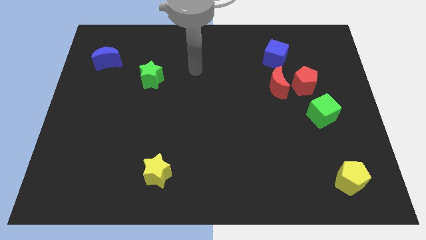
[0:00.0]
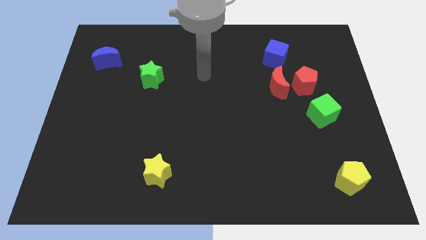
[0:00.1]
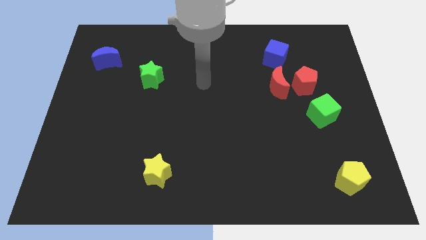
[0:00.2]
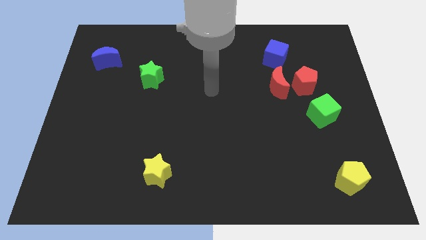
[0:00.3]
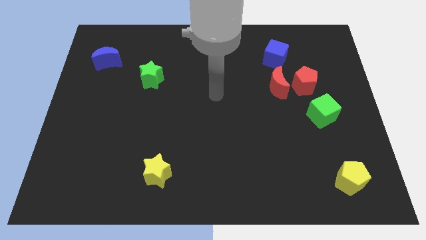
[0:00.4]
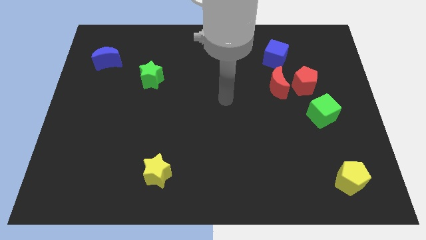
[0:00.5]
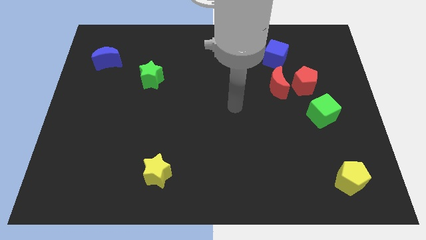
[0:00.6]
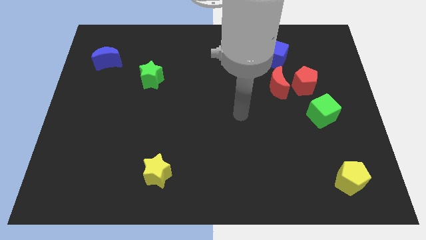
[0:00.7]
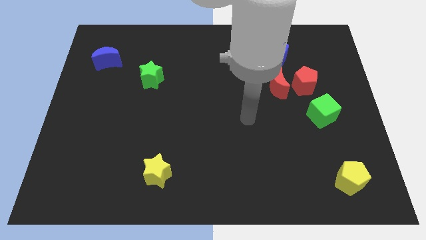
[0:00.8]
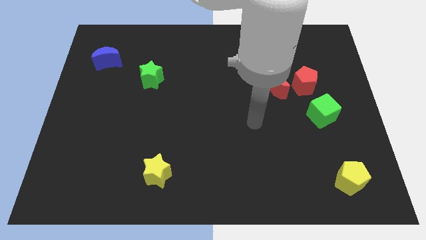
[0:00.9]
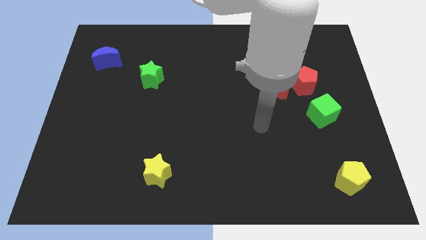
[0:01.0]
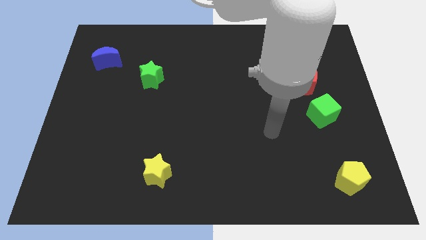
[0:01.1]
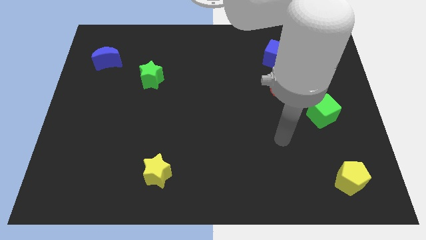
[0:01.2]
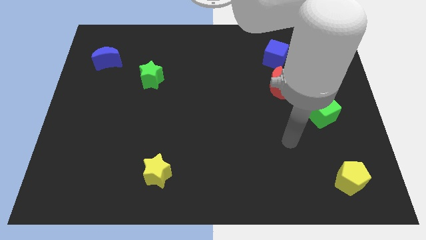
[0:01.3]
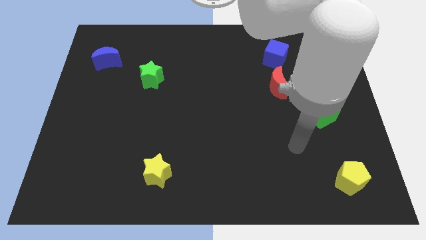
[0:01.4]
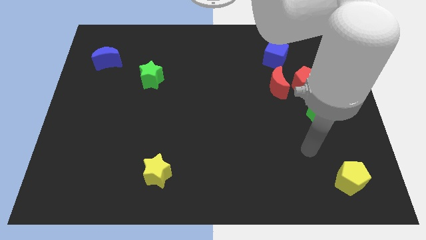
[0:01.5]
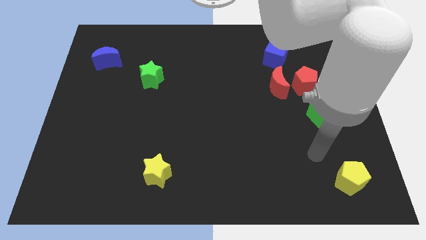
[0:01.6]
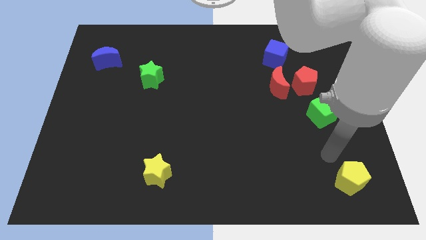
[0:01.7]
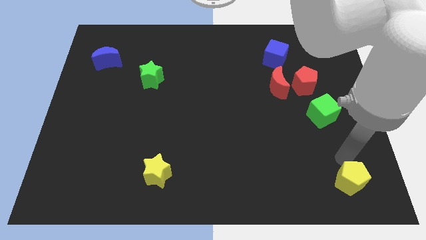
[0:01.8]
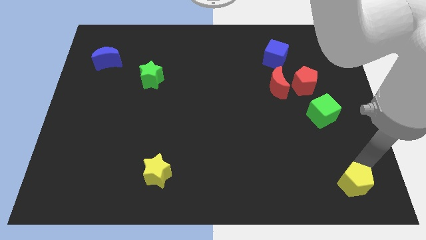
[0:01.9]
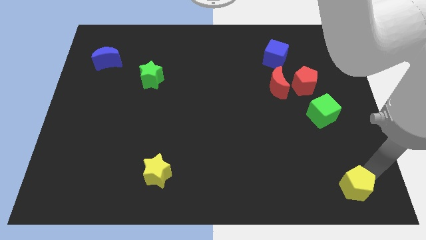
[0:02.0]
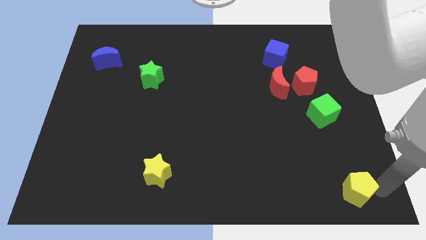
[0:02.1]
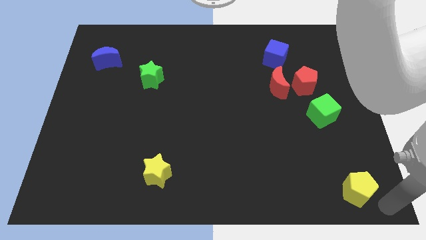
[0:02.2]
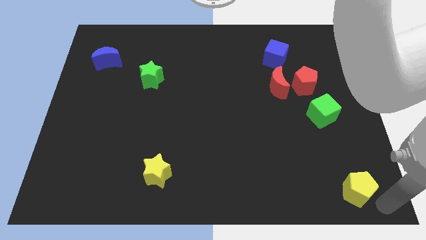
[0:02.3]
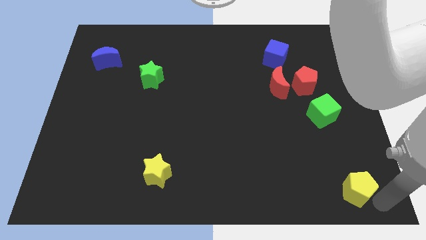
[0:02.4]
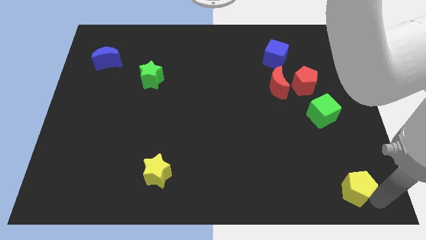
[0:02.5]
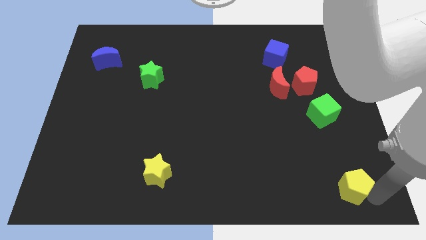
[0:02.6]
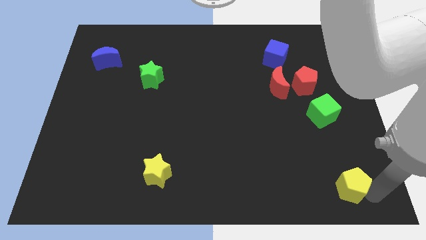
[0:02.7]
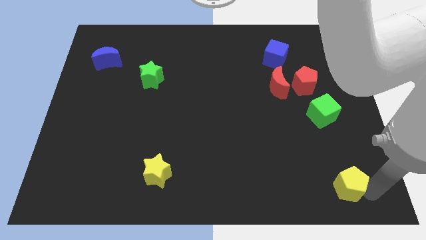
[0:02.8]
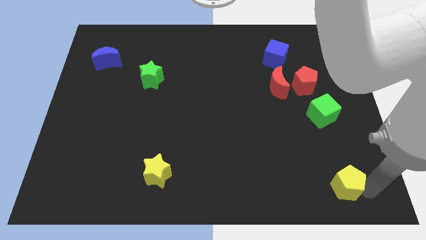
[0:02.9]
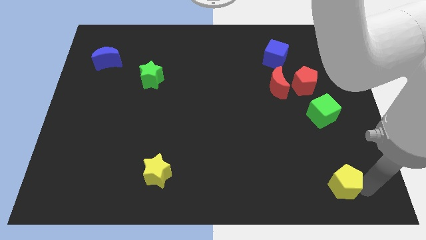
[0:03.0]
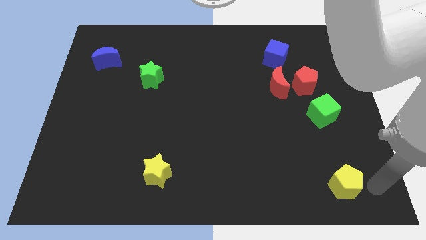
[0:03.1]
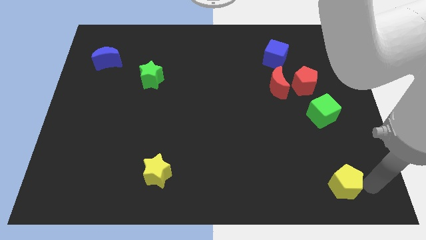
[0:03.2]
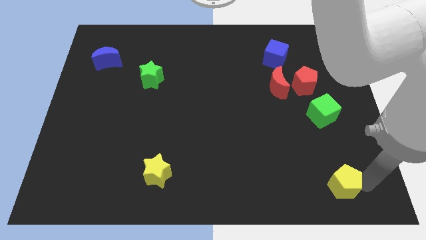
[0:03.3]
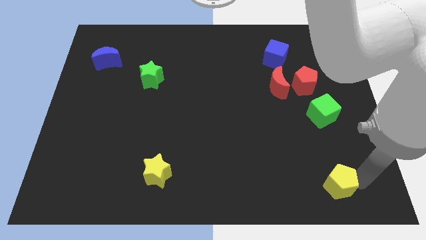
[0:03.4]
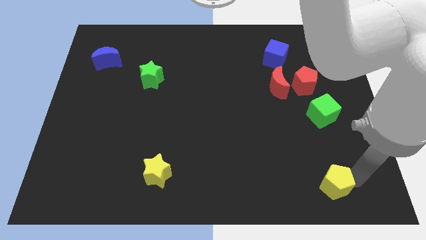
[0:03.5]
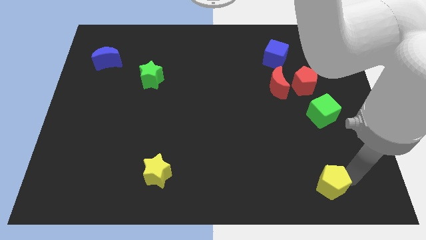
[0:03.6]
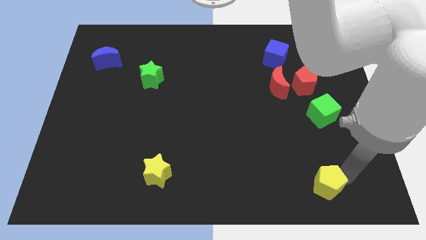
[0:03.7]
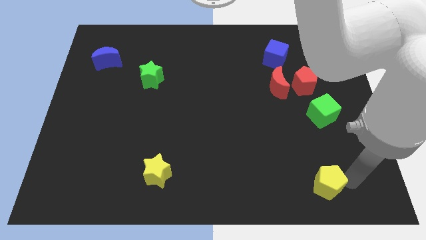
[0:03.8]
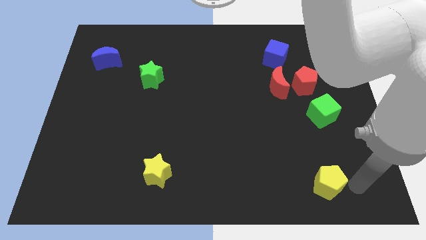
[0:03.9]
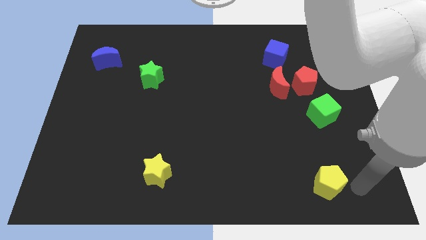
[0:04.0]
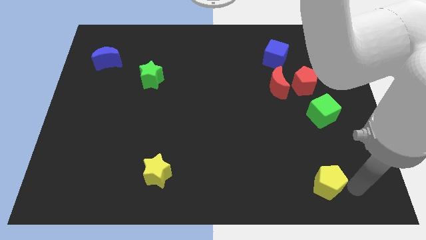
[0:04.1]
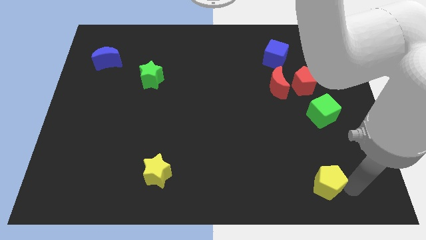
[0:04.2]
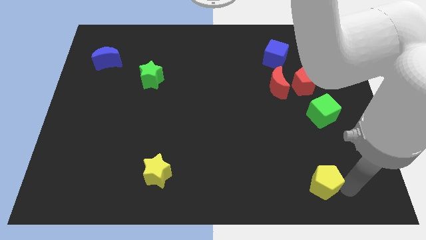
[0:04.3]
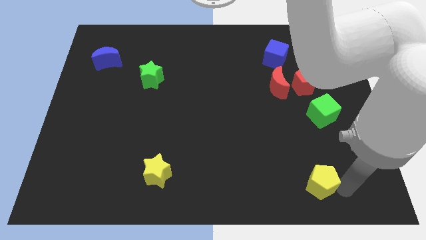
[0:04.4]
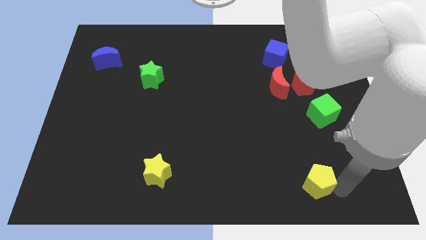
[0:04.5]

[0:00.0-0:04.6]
push the yellow pentagon to the left slightly

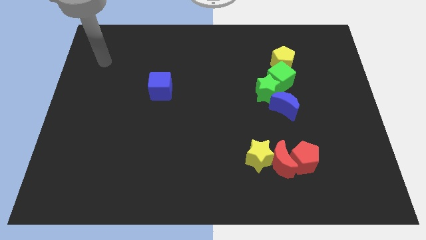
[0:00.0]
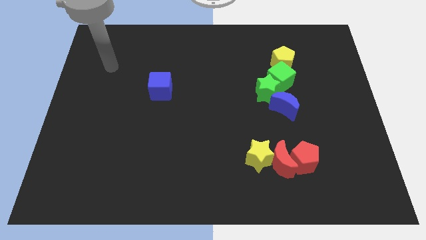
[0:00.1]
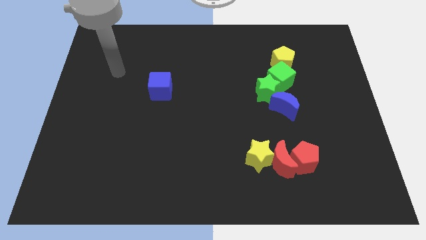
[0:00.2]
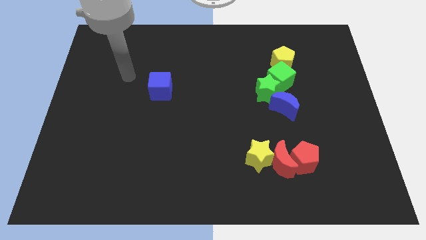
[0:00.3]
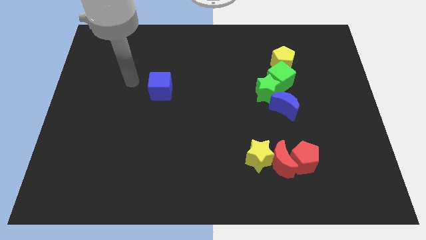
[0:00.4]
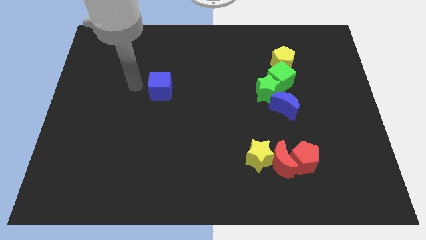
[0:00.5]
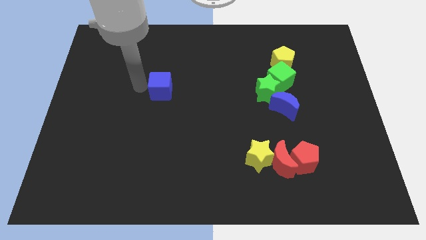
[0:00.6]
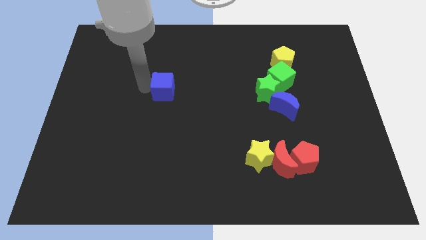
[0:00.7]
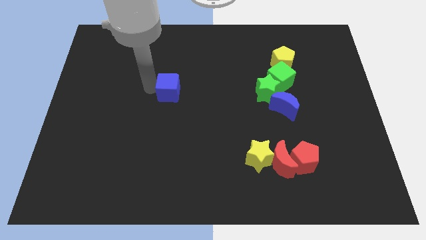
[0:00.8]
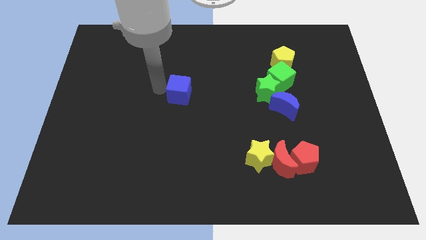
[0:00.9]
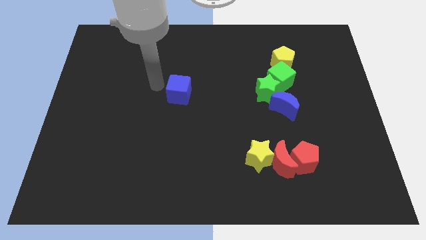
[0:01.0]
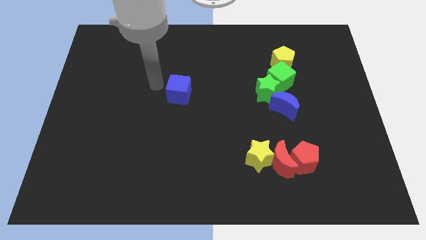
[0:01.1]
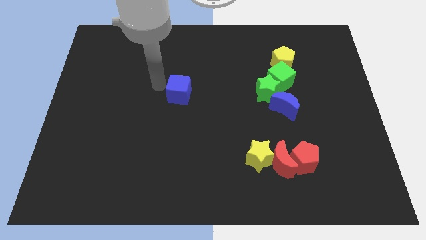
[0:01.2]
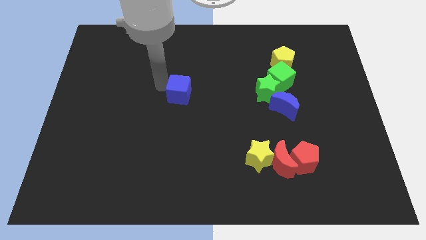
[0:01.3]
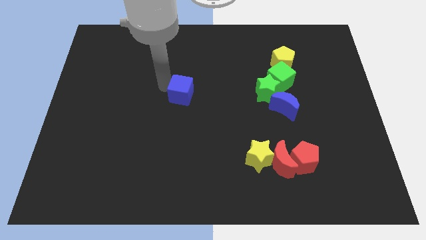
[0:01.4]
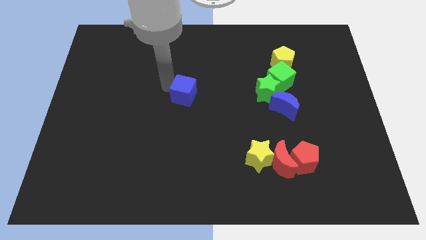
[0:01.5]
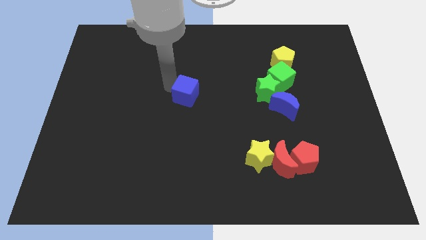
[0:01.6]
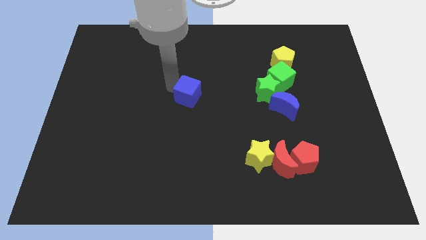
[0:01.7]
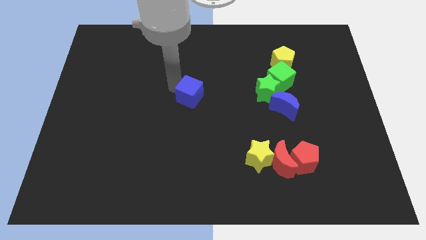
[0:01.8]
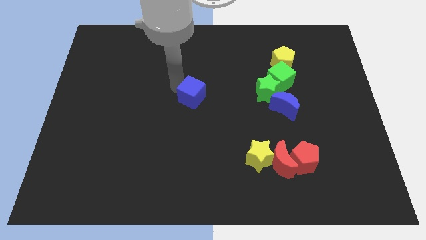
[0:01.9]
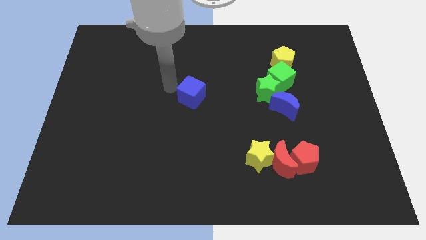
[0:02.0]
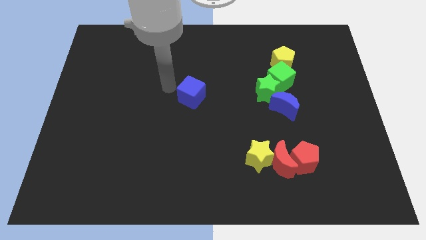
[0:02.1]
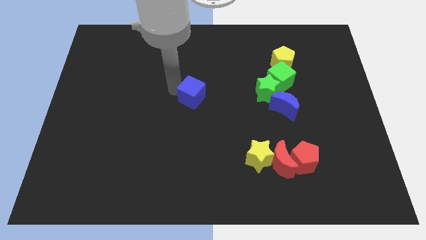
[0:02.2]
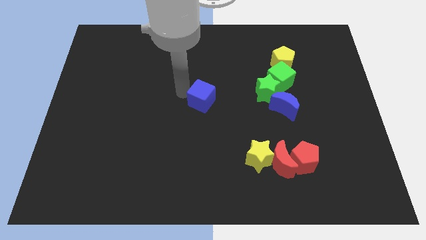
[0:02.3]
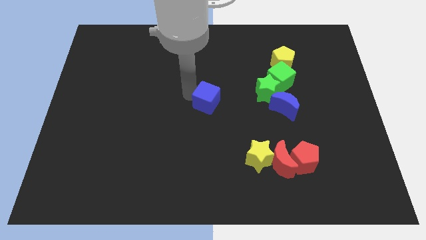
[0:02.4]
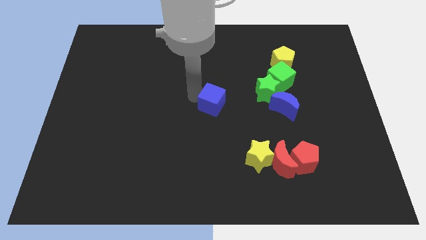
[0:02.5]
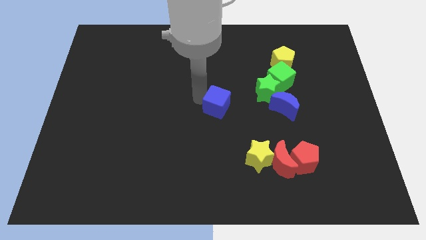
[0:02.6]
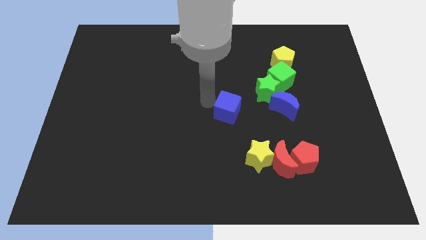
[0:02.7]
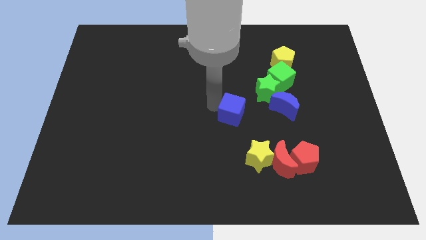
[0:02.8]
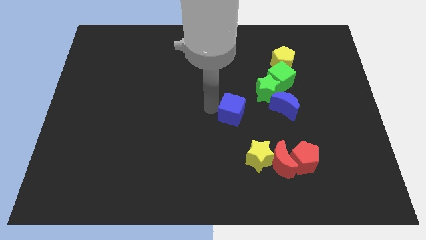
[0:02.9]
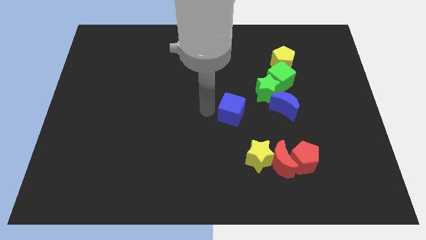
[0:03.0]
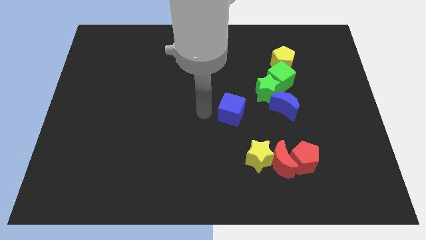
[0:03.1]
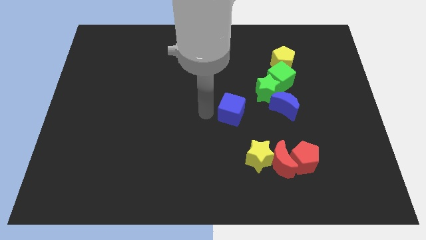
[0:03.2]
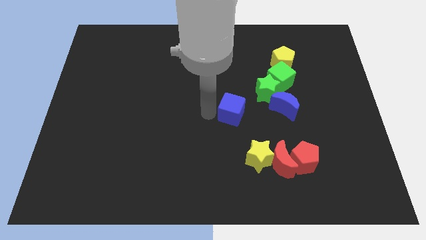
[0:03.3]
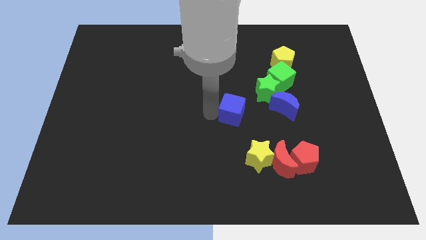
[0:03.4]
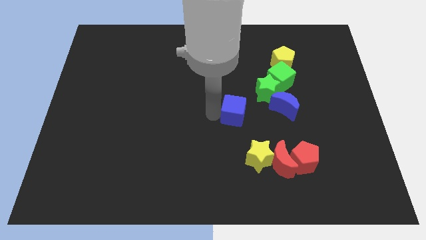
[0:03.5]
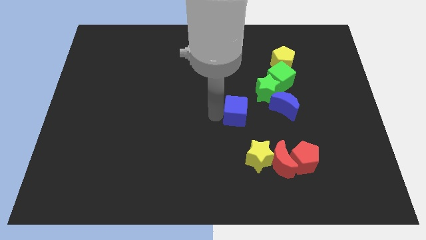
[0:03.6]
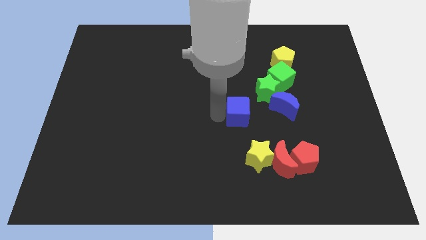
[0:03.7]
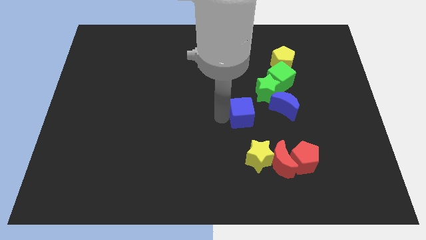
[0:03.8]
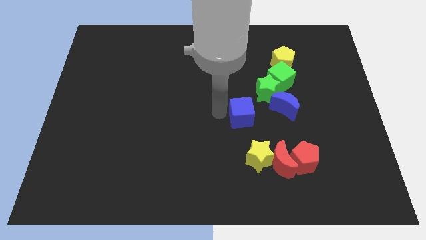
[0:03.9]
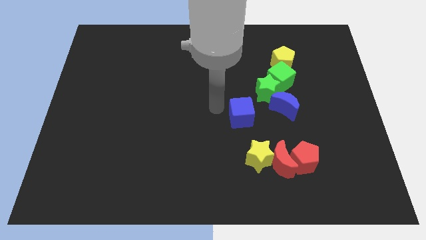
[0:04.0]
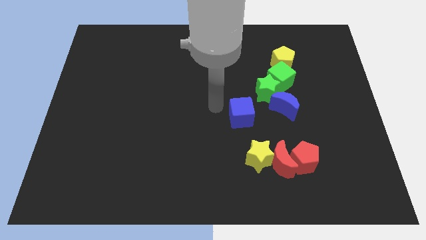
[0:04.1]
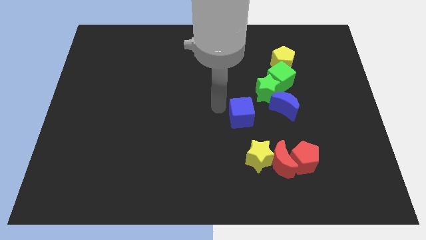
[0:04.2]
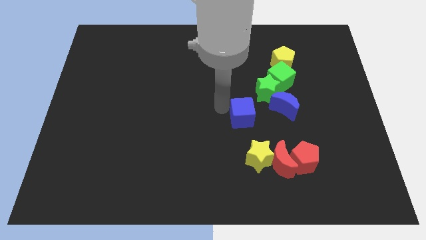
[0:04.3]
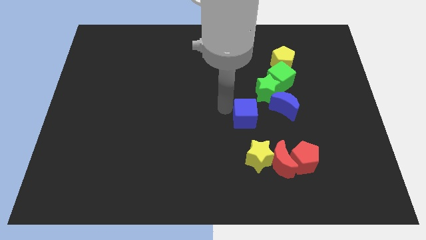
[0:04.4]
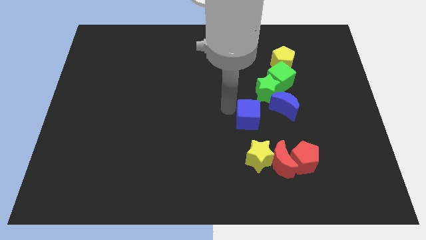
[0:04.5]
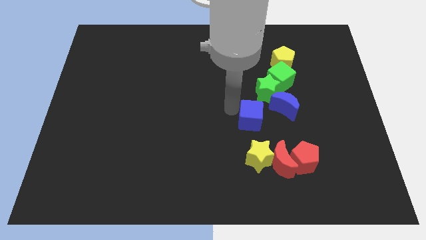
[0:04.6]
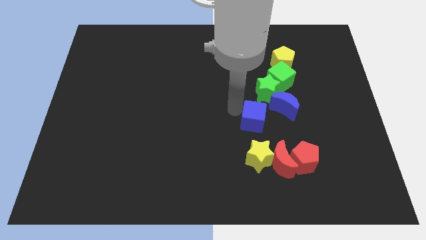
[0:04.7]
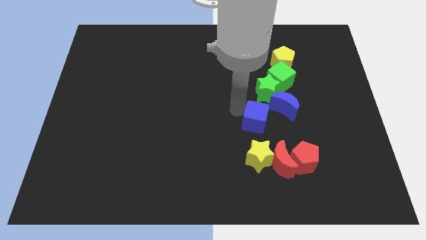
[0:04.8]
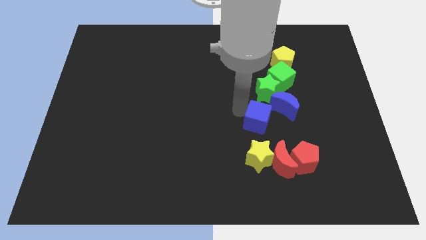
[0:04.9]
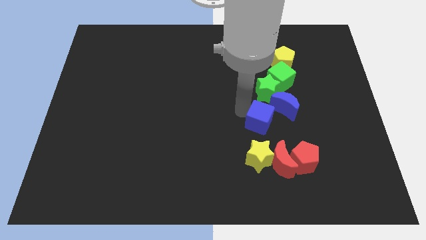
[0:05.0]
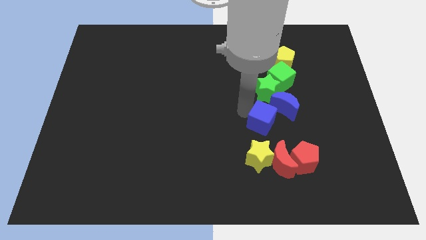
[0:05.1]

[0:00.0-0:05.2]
move the blue cube right
